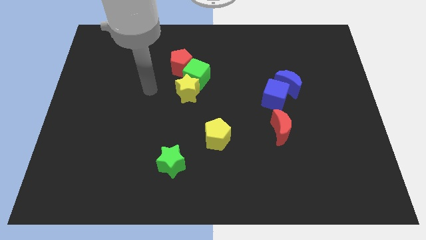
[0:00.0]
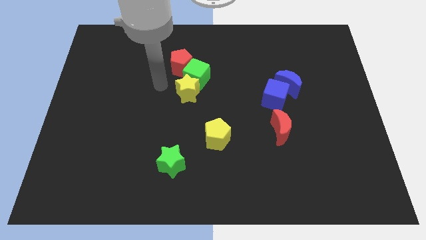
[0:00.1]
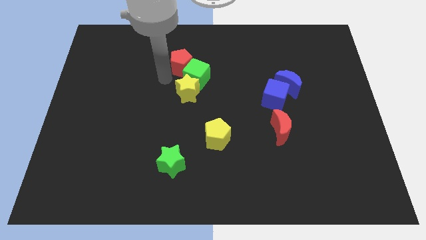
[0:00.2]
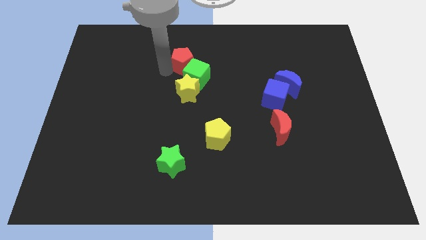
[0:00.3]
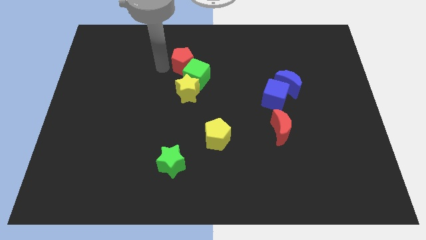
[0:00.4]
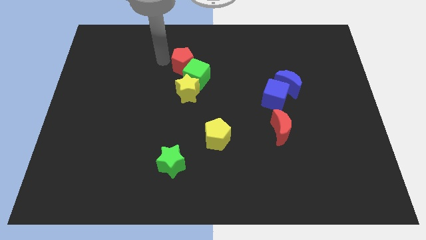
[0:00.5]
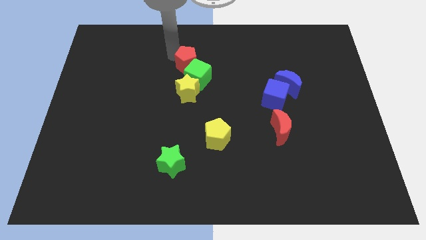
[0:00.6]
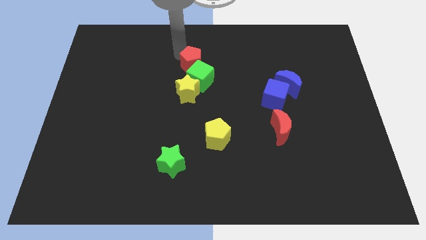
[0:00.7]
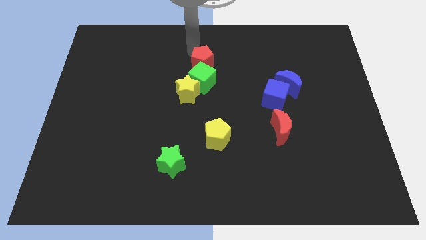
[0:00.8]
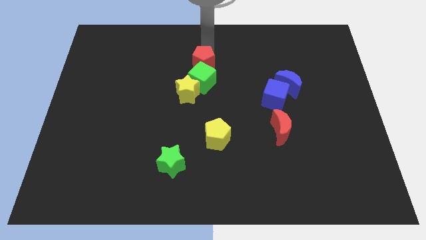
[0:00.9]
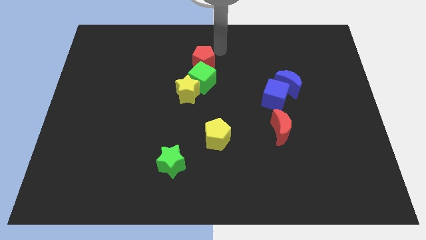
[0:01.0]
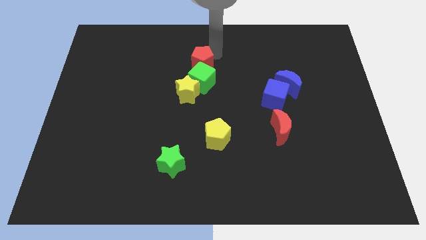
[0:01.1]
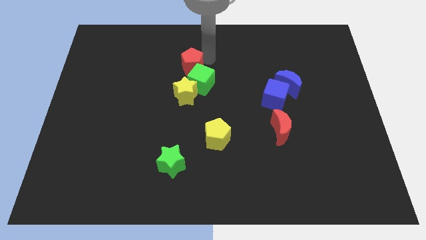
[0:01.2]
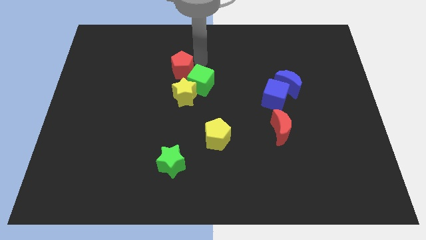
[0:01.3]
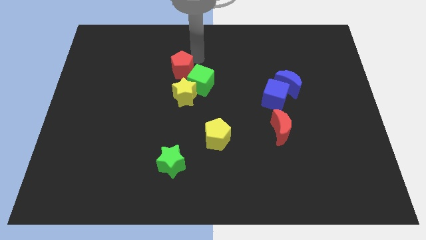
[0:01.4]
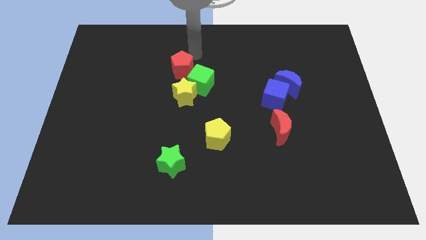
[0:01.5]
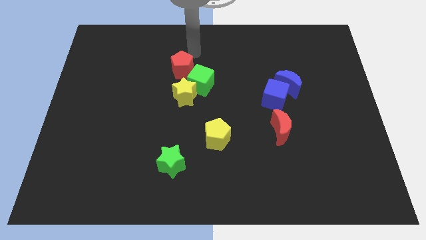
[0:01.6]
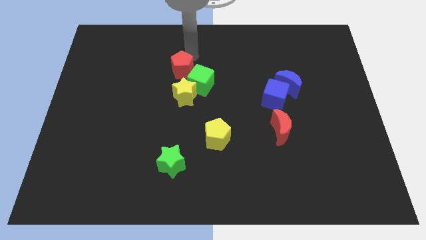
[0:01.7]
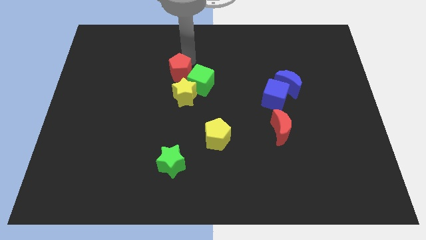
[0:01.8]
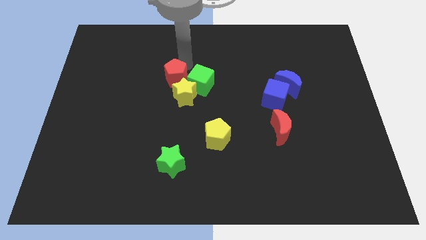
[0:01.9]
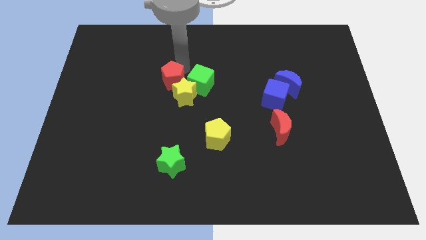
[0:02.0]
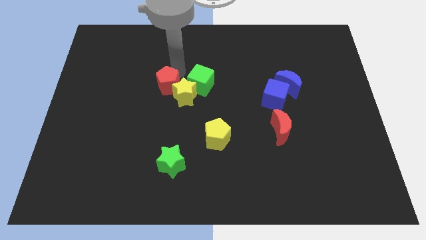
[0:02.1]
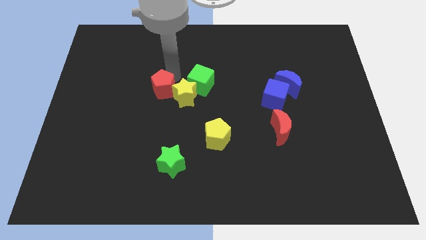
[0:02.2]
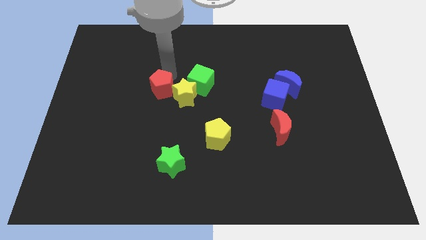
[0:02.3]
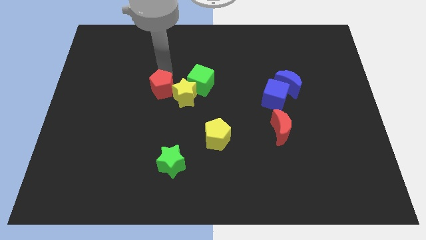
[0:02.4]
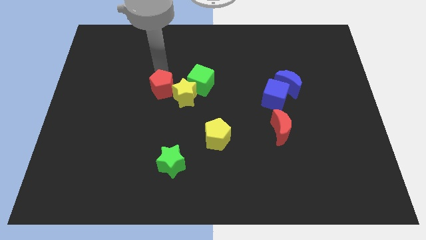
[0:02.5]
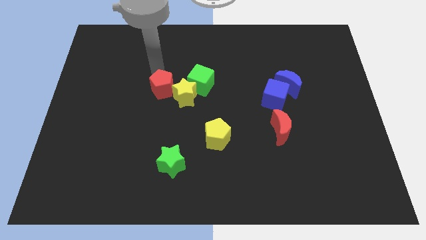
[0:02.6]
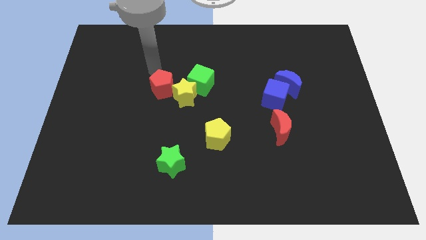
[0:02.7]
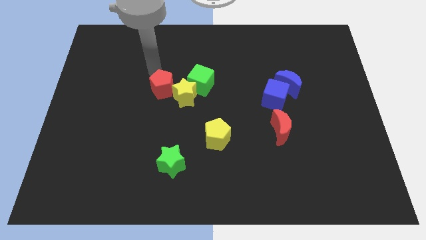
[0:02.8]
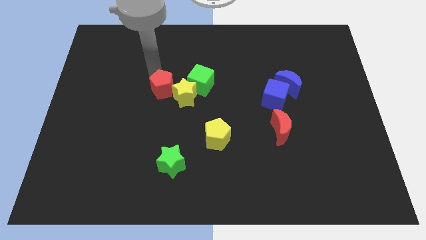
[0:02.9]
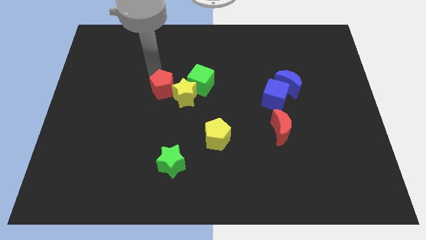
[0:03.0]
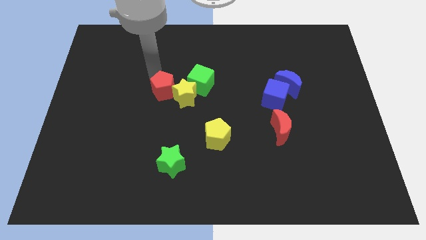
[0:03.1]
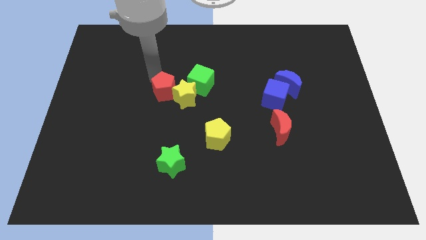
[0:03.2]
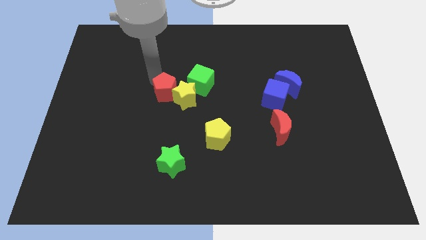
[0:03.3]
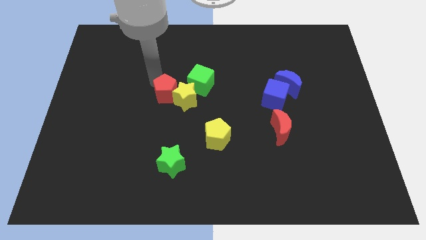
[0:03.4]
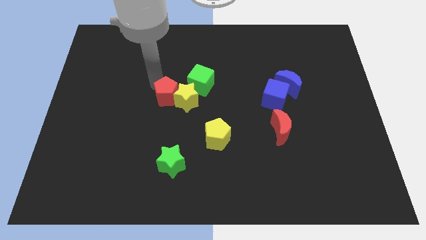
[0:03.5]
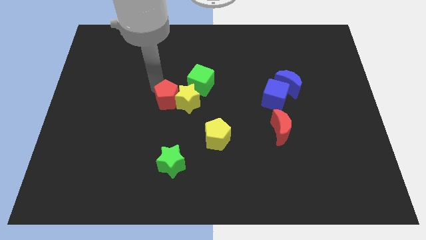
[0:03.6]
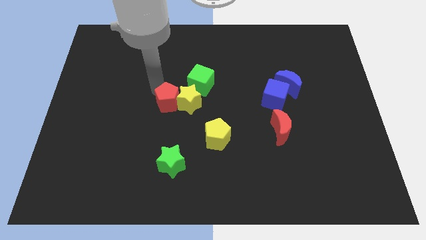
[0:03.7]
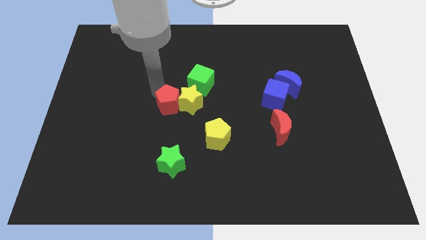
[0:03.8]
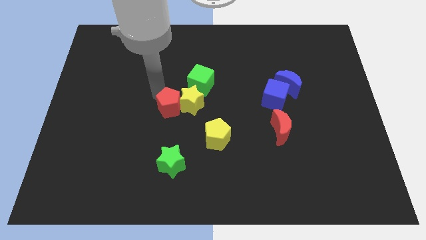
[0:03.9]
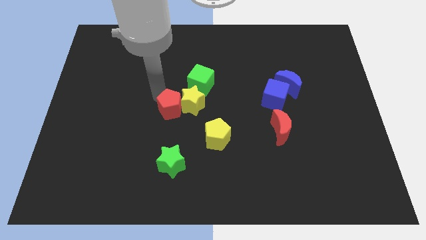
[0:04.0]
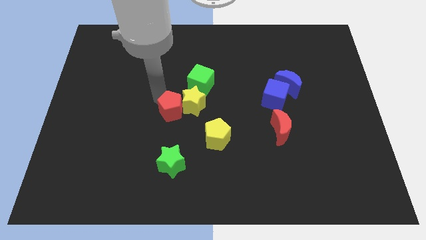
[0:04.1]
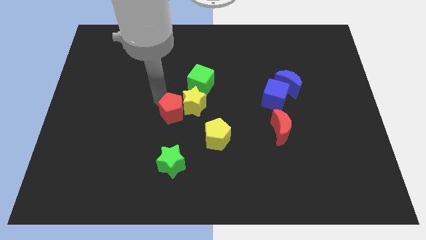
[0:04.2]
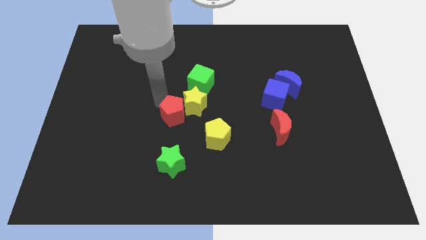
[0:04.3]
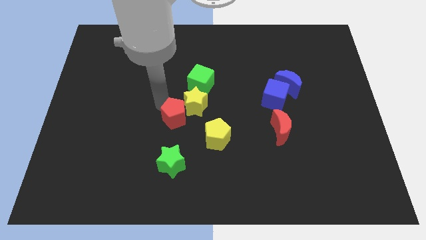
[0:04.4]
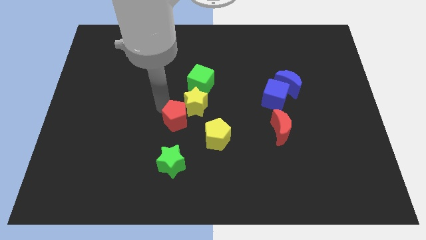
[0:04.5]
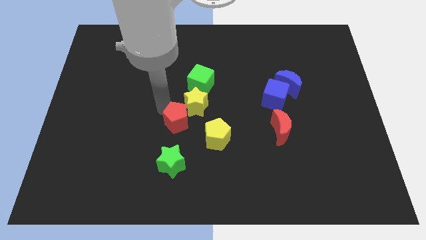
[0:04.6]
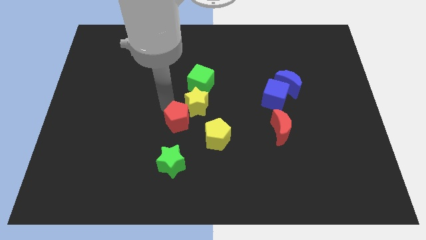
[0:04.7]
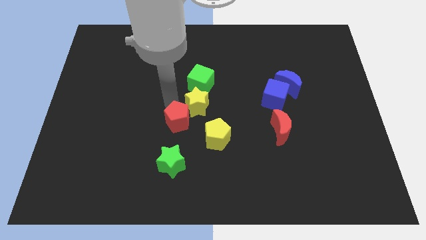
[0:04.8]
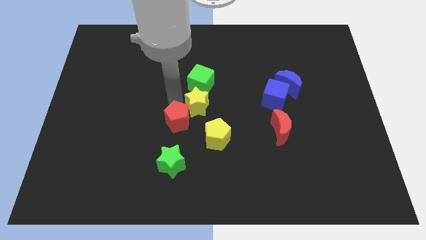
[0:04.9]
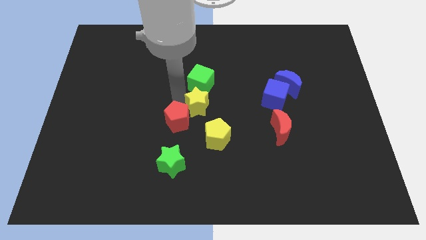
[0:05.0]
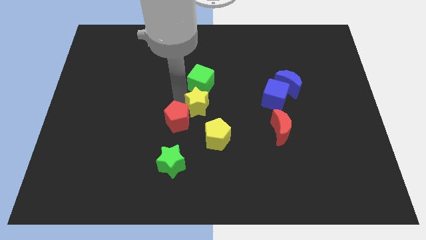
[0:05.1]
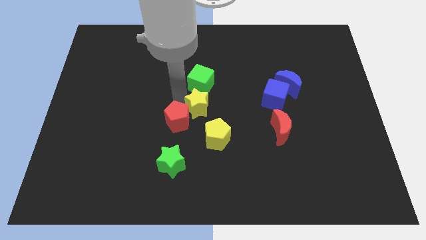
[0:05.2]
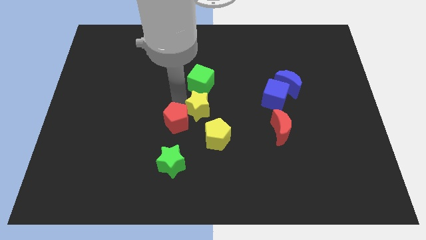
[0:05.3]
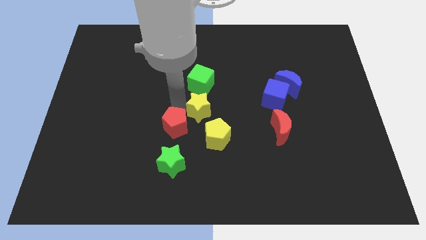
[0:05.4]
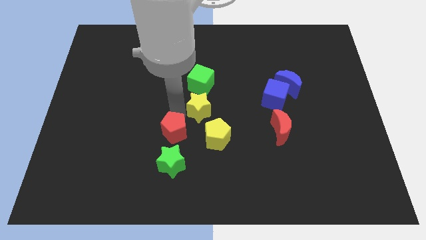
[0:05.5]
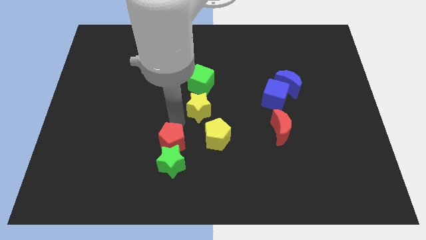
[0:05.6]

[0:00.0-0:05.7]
slide the red pentagon next to the green star

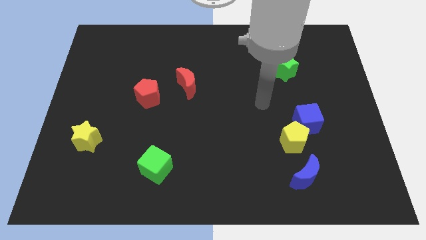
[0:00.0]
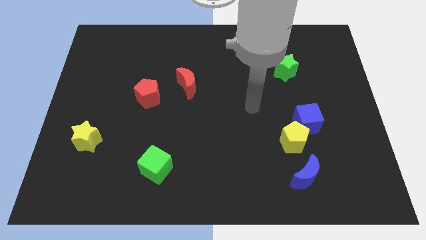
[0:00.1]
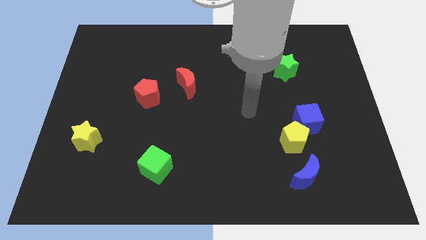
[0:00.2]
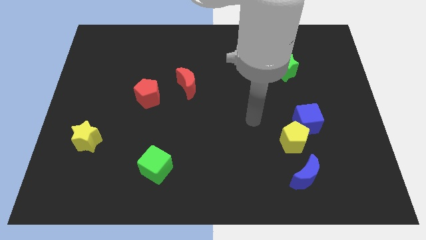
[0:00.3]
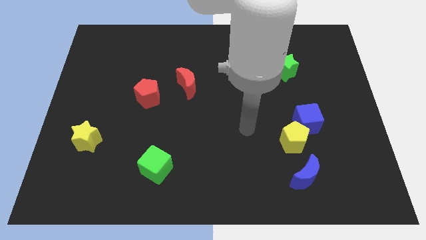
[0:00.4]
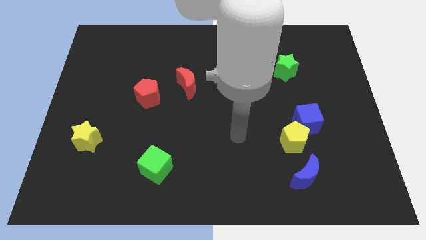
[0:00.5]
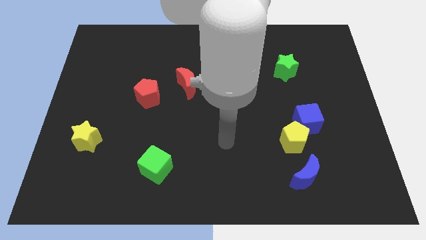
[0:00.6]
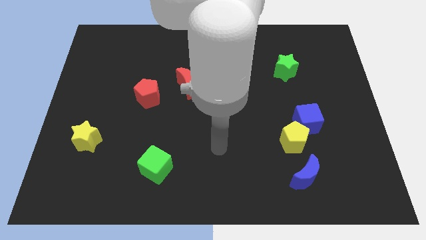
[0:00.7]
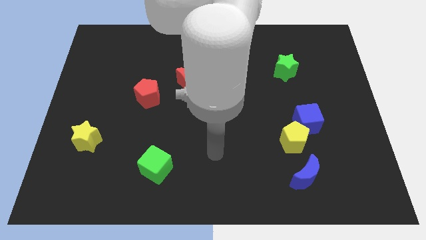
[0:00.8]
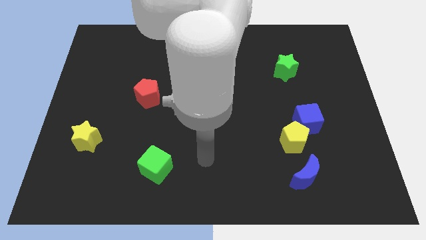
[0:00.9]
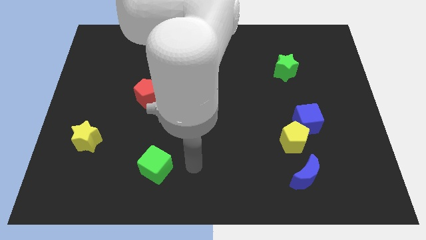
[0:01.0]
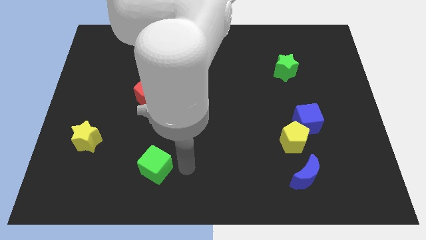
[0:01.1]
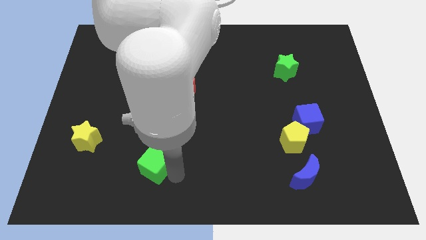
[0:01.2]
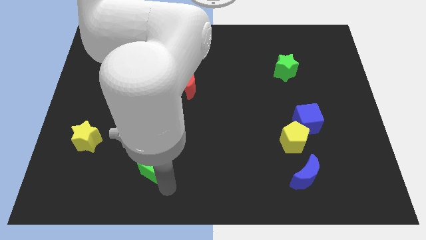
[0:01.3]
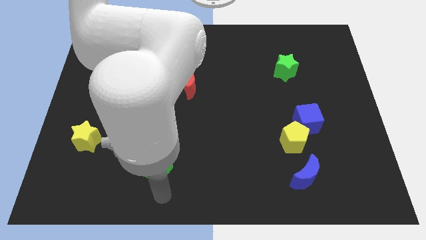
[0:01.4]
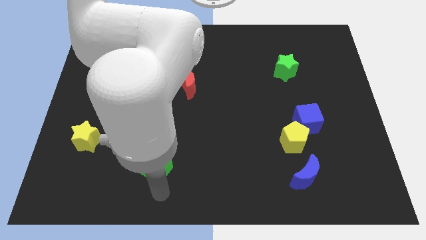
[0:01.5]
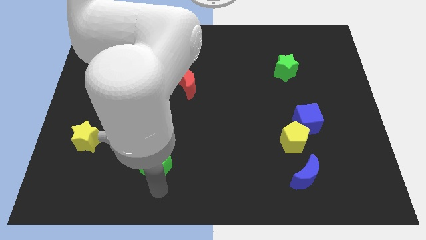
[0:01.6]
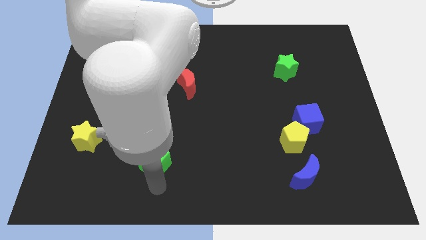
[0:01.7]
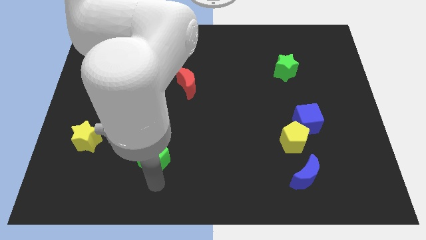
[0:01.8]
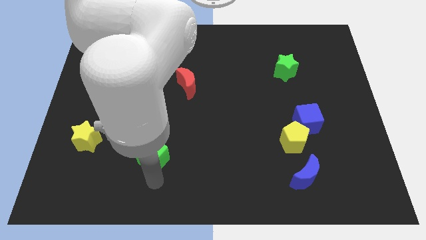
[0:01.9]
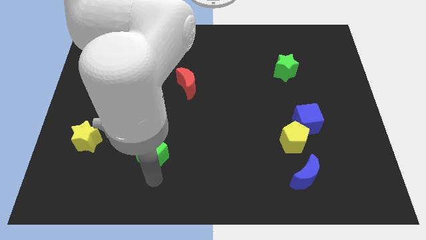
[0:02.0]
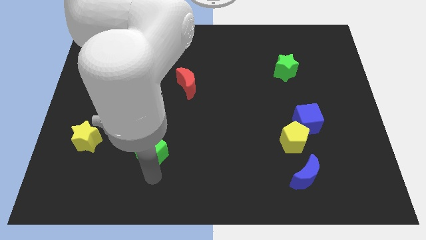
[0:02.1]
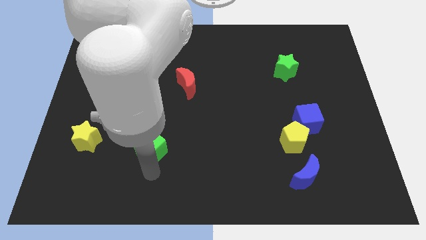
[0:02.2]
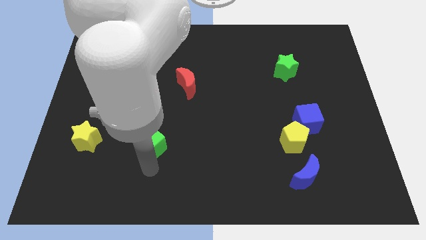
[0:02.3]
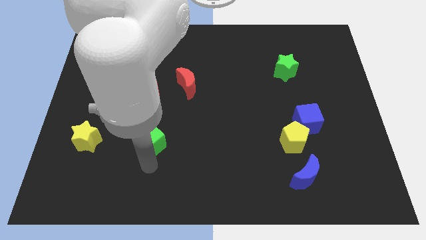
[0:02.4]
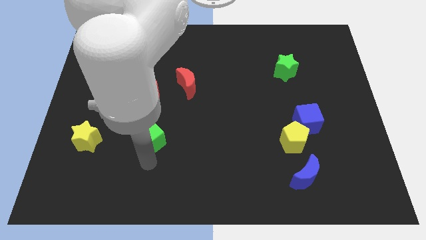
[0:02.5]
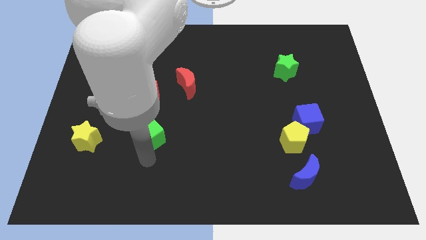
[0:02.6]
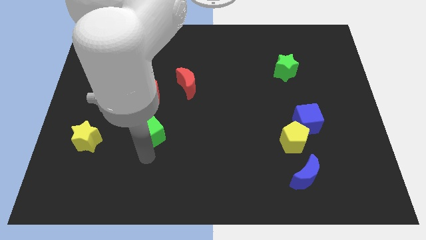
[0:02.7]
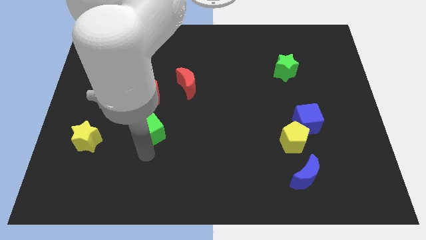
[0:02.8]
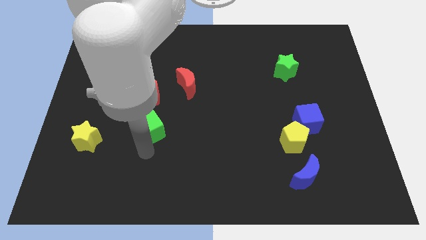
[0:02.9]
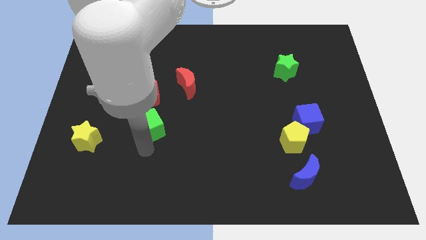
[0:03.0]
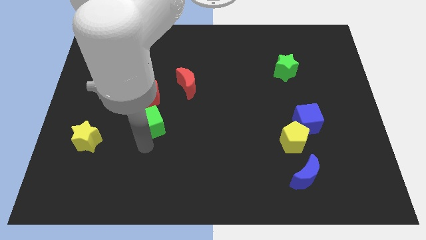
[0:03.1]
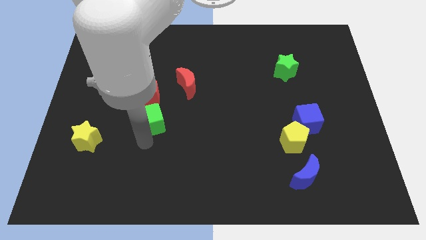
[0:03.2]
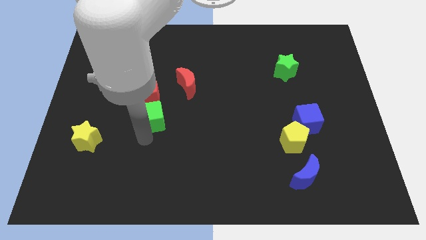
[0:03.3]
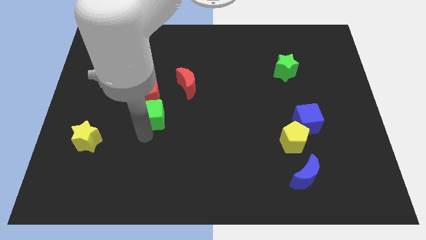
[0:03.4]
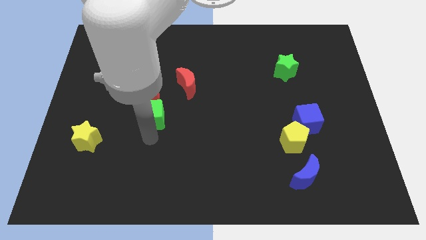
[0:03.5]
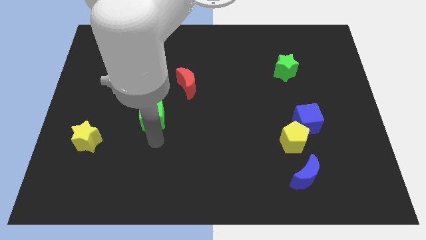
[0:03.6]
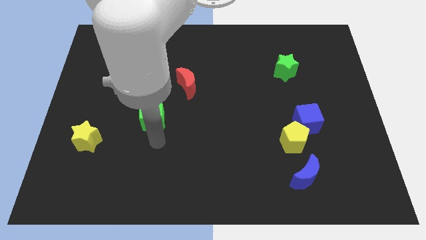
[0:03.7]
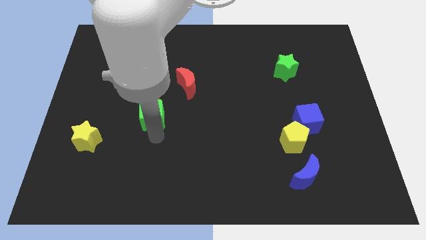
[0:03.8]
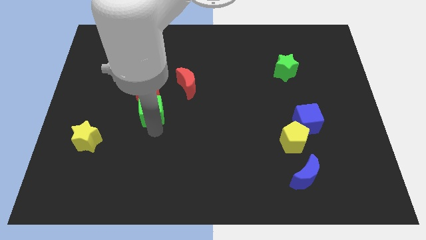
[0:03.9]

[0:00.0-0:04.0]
move the green cube next to the red pentagon
